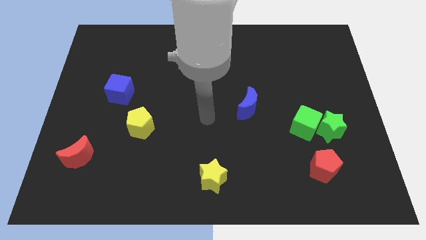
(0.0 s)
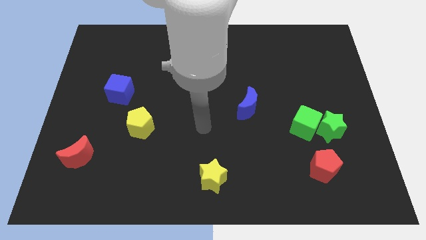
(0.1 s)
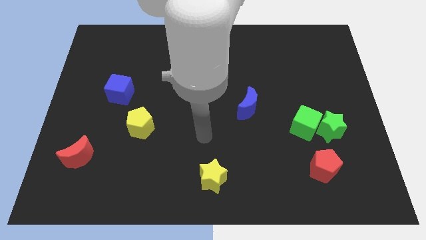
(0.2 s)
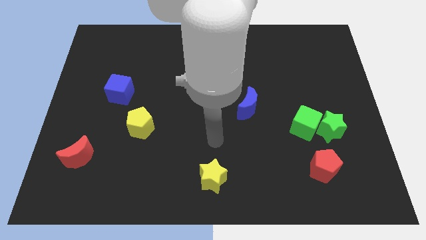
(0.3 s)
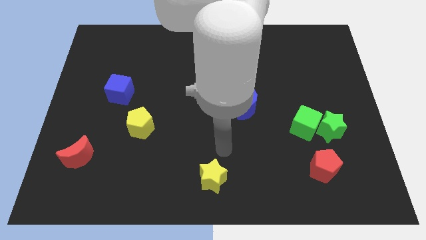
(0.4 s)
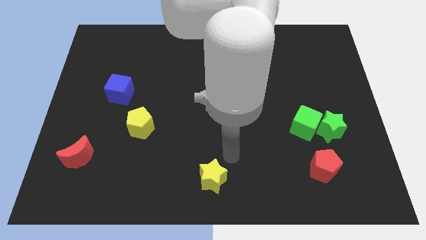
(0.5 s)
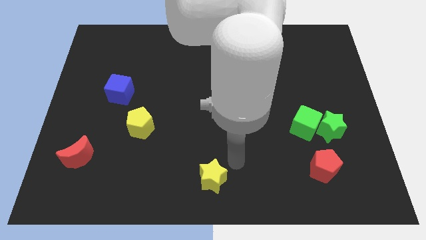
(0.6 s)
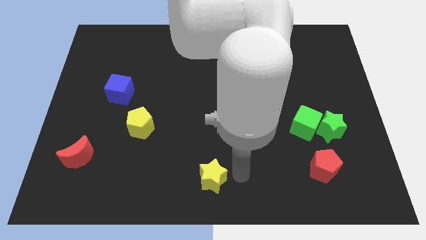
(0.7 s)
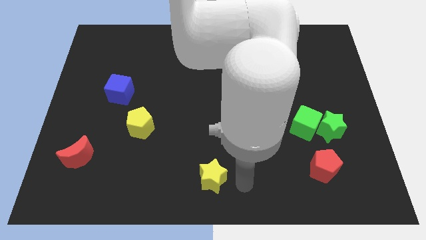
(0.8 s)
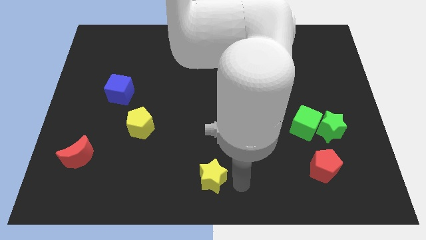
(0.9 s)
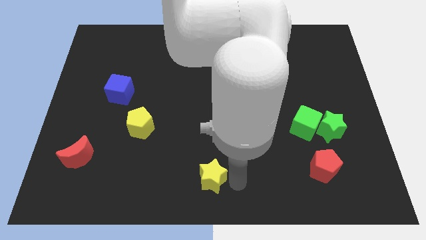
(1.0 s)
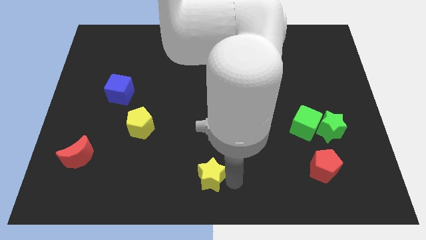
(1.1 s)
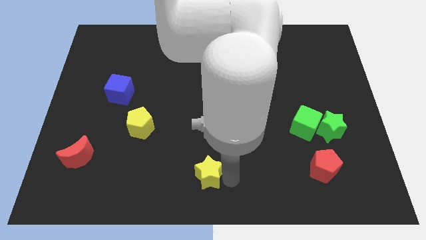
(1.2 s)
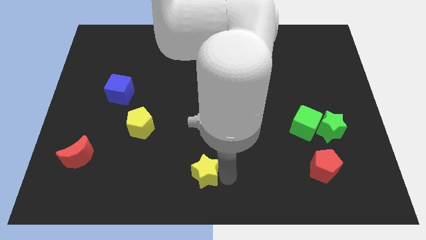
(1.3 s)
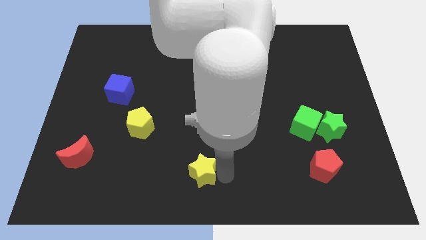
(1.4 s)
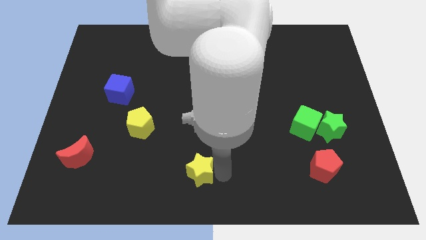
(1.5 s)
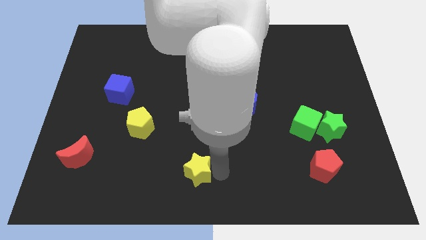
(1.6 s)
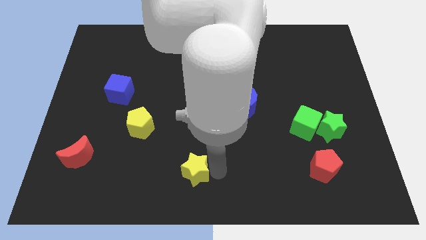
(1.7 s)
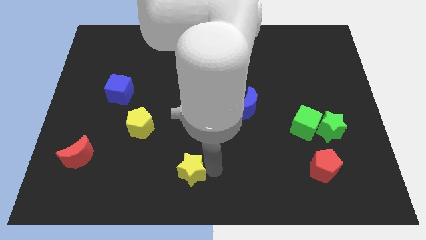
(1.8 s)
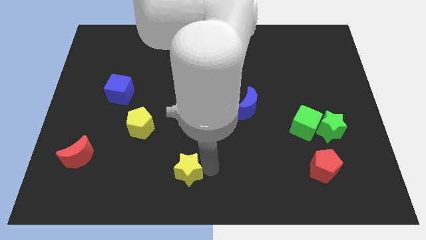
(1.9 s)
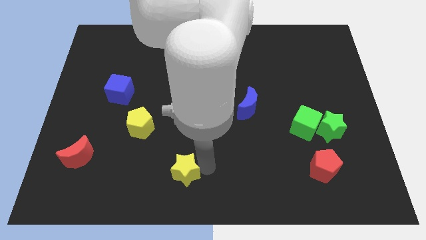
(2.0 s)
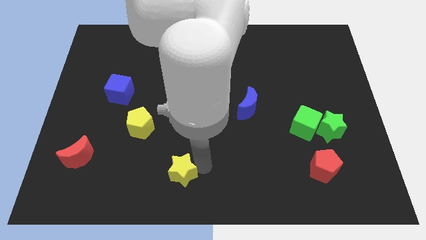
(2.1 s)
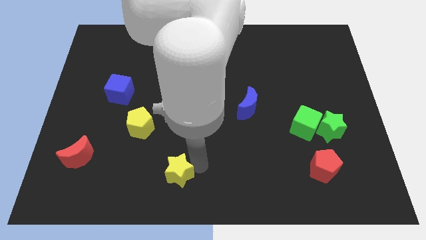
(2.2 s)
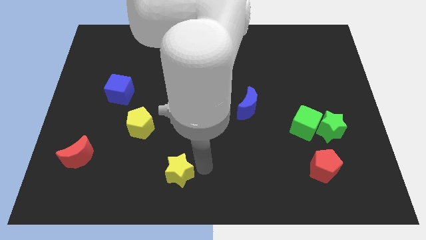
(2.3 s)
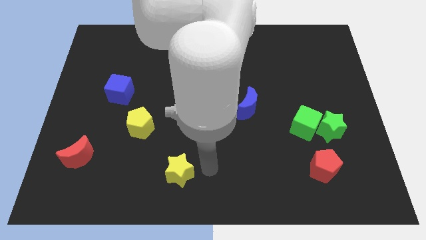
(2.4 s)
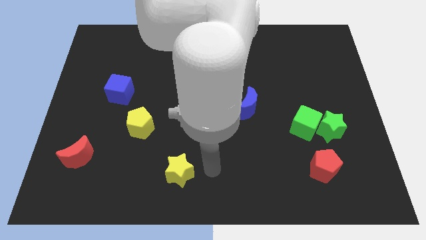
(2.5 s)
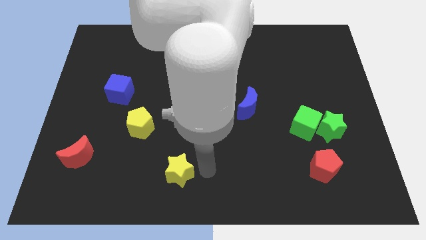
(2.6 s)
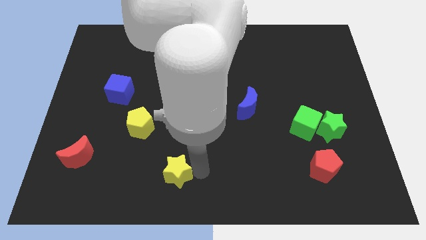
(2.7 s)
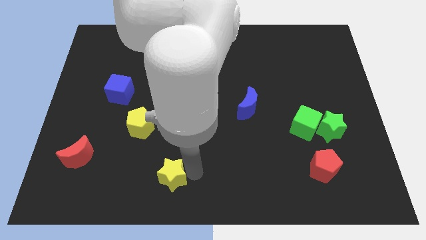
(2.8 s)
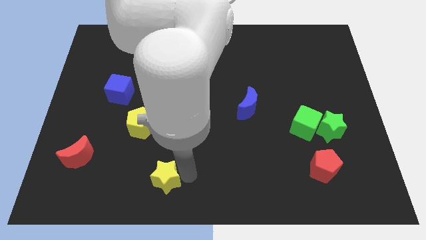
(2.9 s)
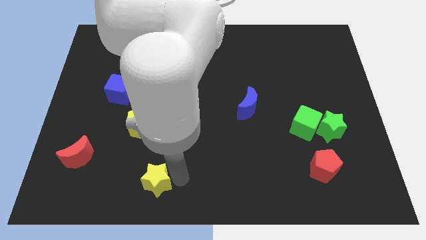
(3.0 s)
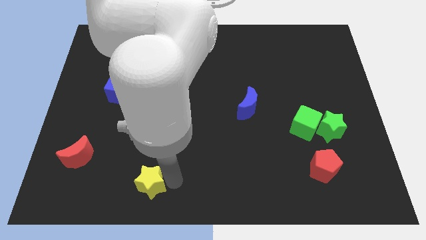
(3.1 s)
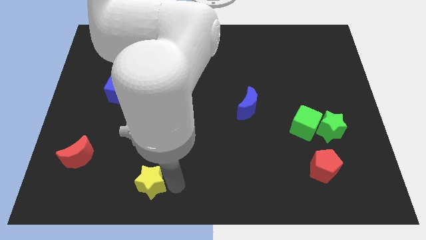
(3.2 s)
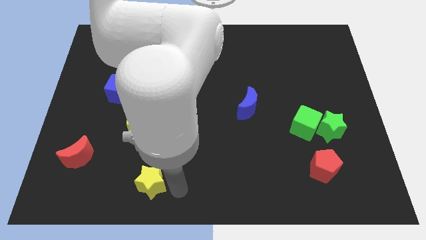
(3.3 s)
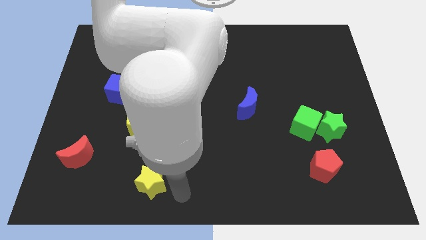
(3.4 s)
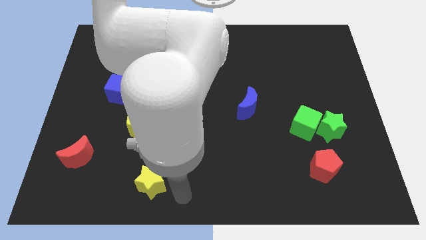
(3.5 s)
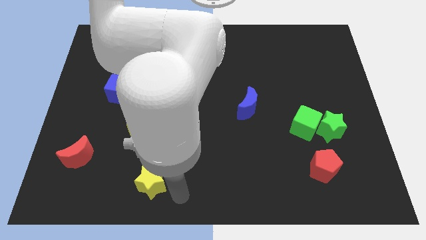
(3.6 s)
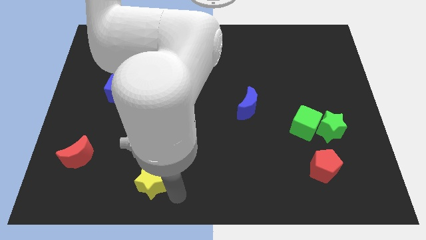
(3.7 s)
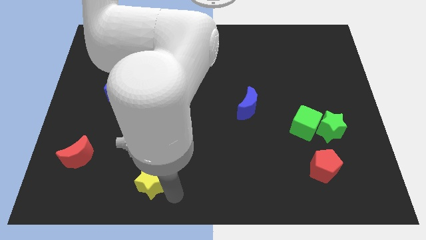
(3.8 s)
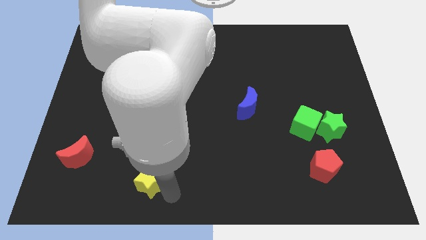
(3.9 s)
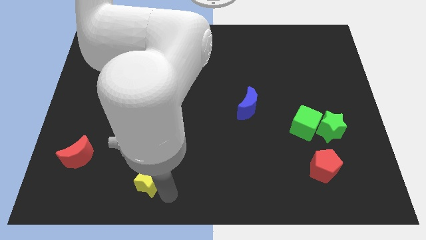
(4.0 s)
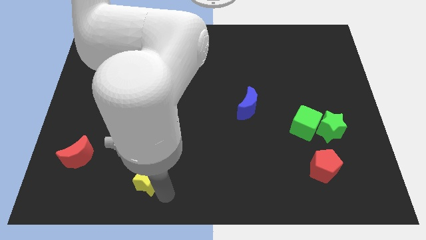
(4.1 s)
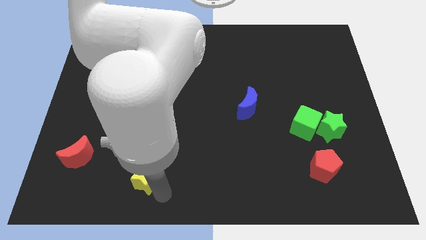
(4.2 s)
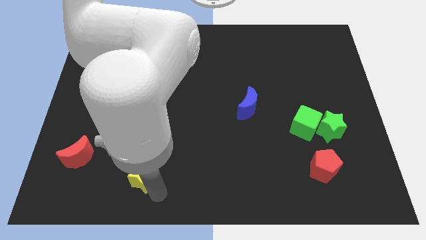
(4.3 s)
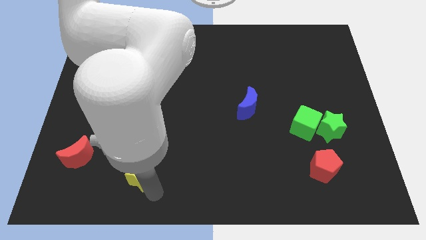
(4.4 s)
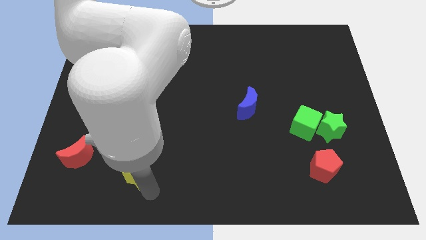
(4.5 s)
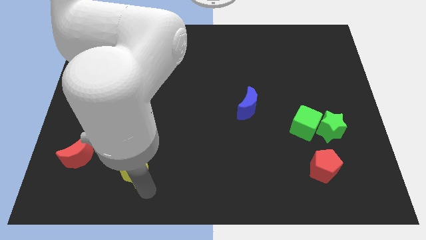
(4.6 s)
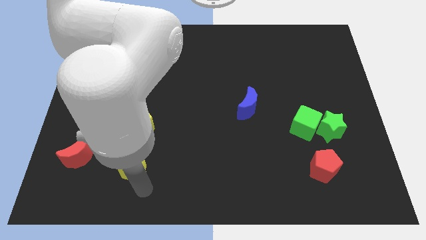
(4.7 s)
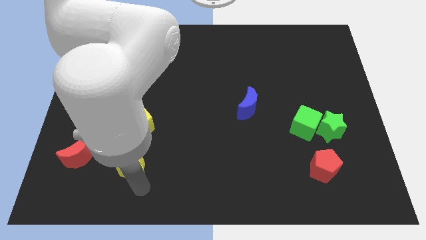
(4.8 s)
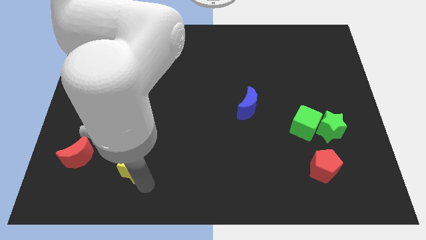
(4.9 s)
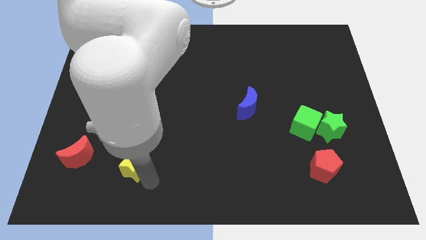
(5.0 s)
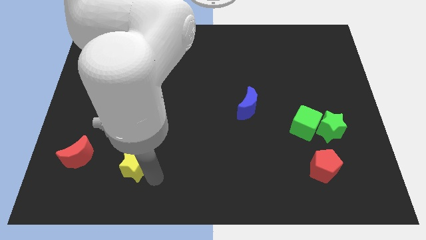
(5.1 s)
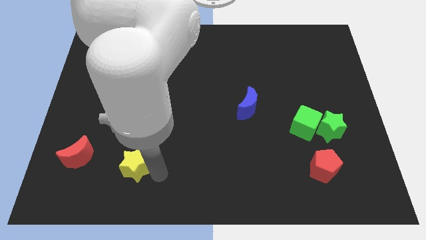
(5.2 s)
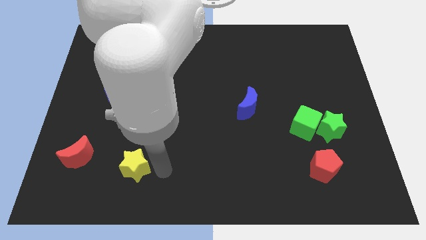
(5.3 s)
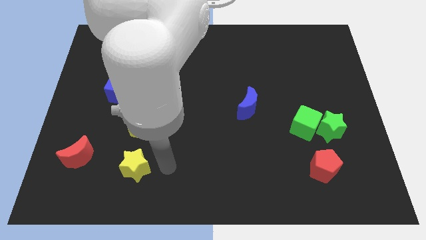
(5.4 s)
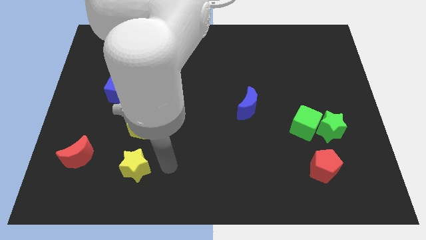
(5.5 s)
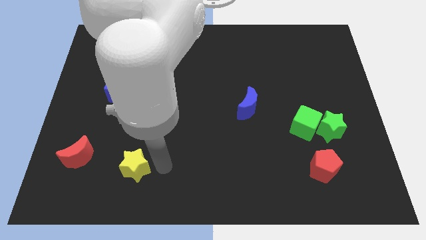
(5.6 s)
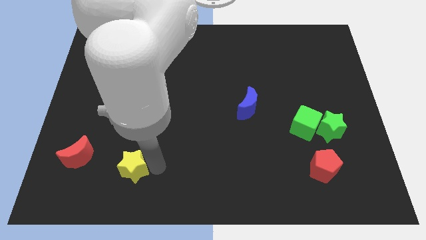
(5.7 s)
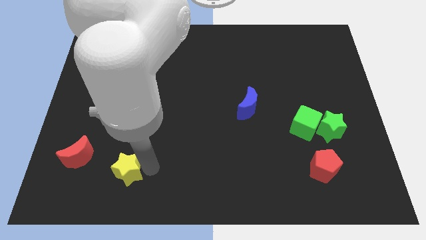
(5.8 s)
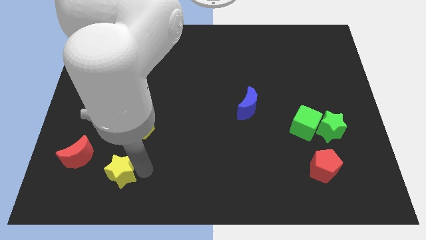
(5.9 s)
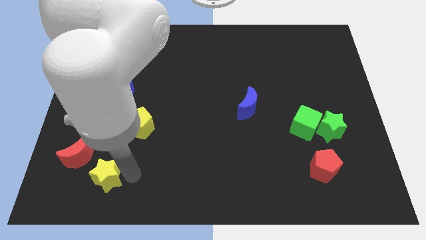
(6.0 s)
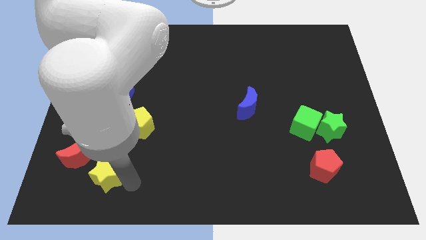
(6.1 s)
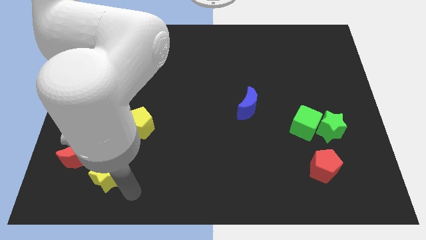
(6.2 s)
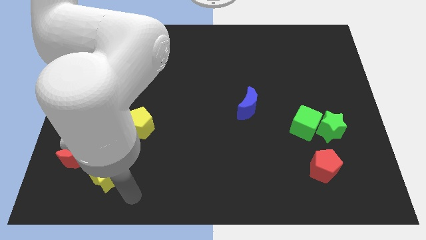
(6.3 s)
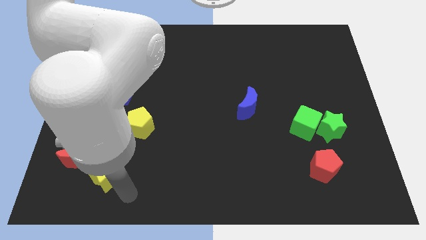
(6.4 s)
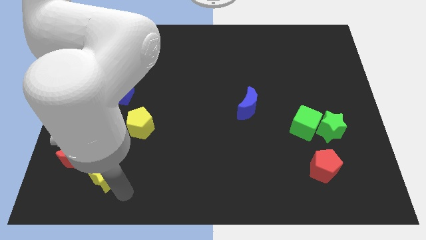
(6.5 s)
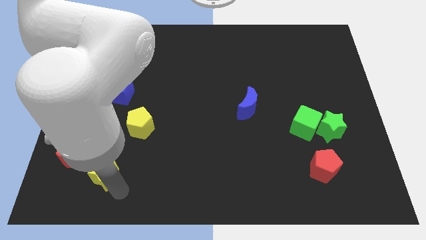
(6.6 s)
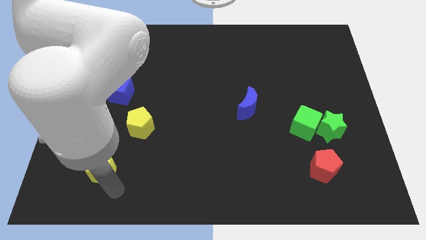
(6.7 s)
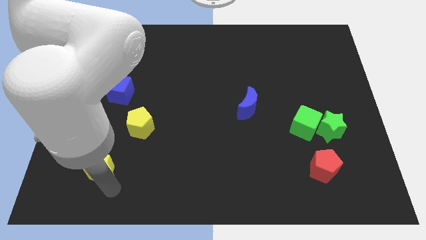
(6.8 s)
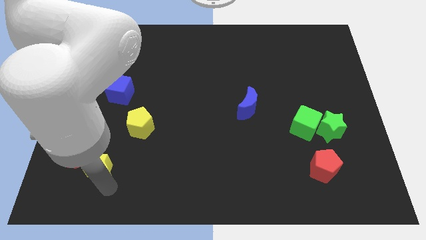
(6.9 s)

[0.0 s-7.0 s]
put the yellow star next to the red moon

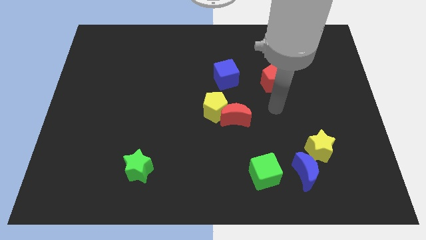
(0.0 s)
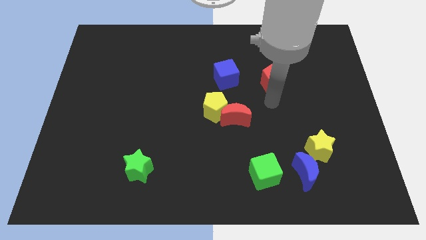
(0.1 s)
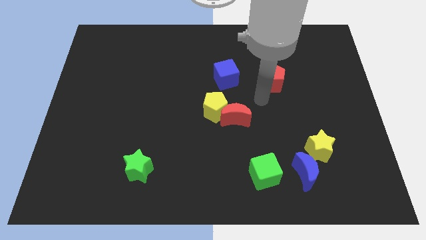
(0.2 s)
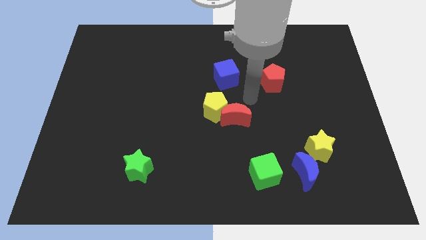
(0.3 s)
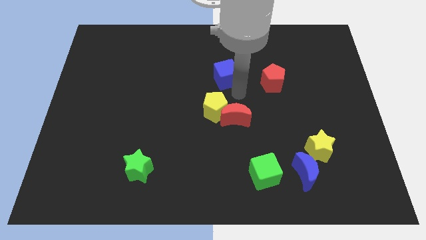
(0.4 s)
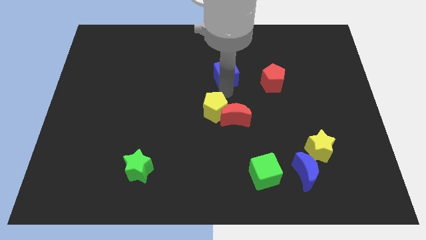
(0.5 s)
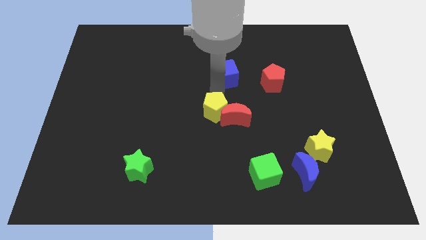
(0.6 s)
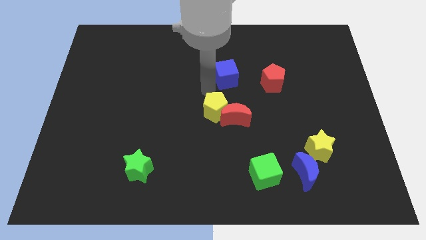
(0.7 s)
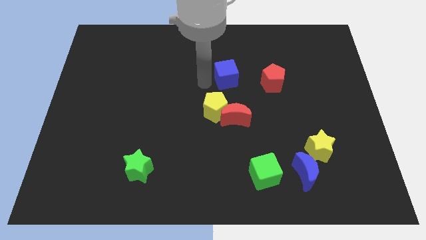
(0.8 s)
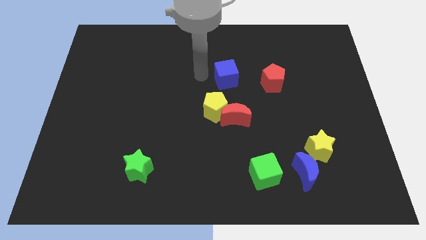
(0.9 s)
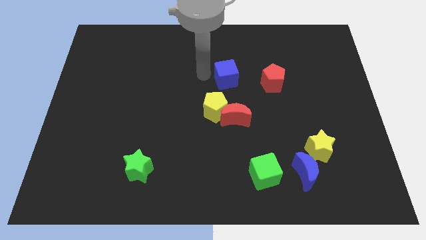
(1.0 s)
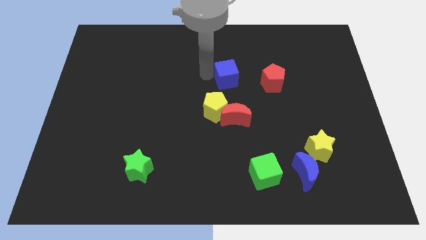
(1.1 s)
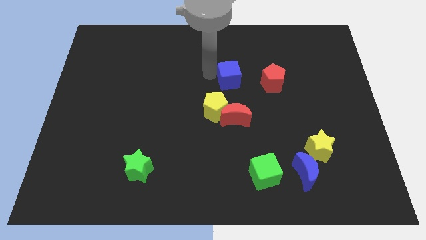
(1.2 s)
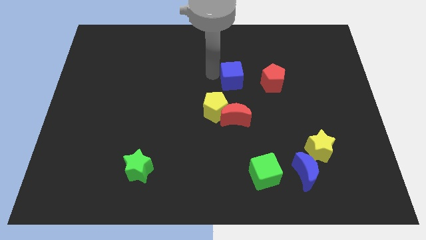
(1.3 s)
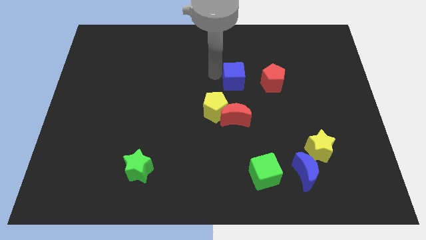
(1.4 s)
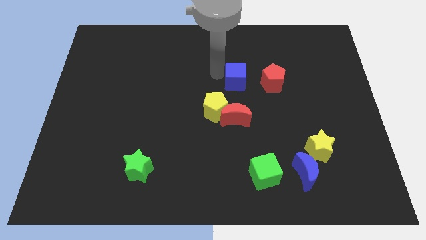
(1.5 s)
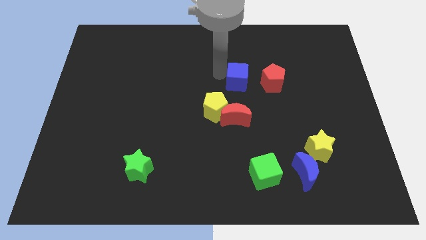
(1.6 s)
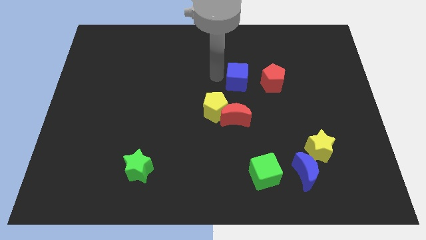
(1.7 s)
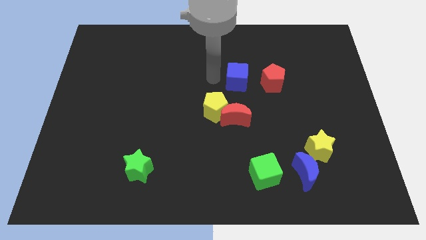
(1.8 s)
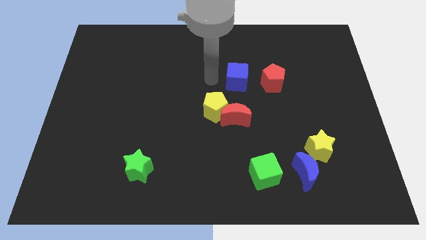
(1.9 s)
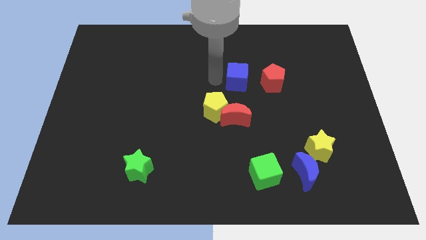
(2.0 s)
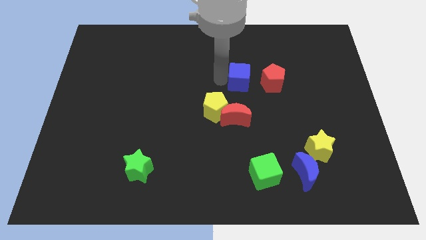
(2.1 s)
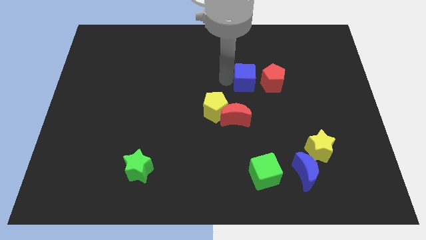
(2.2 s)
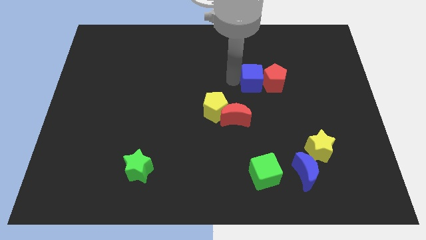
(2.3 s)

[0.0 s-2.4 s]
push the blue cube next to the red pentagon
